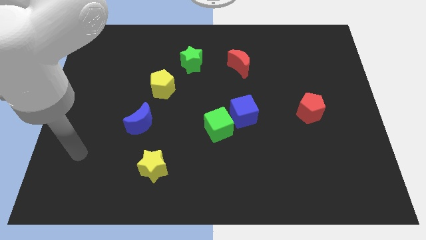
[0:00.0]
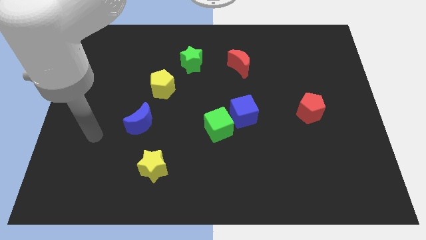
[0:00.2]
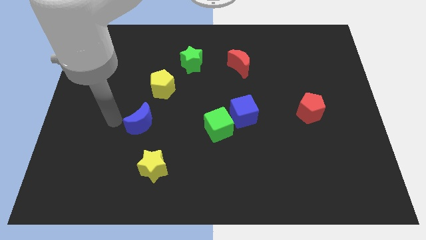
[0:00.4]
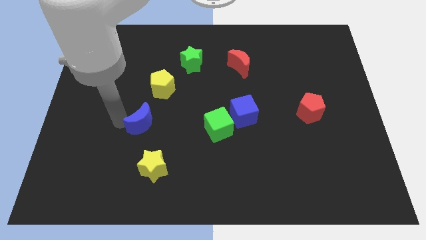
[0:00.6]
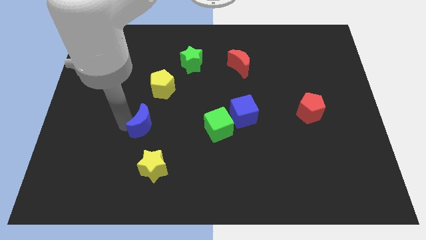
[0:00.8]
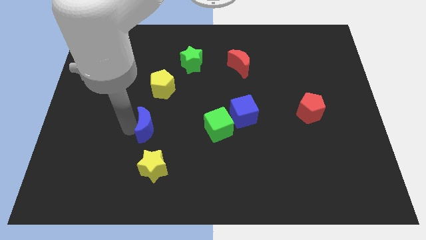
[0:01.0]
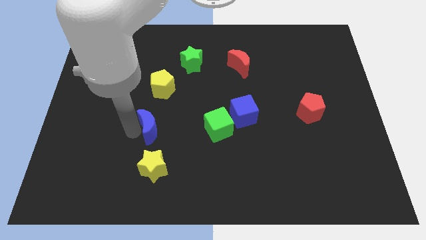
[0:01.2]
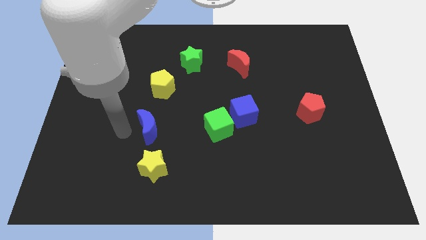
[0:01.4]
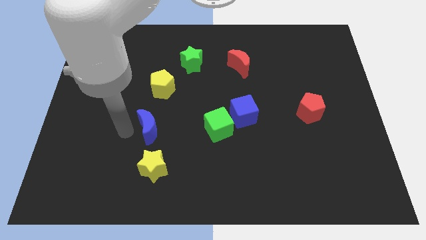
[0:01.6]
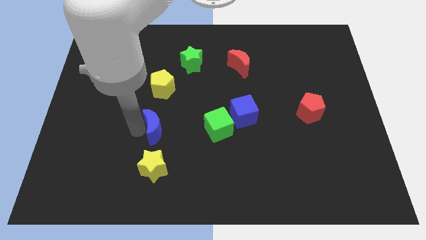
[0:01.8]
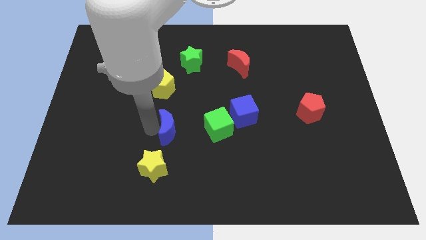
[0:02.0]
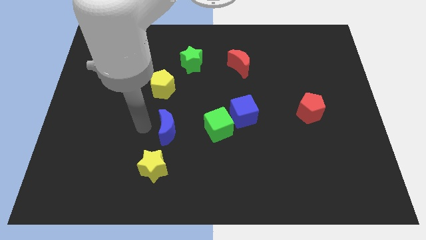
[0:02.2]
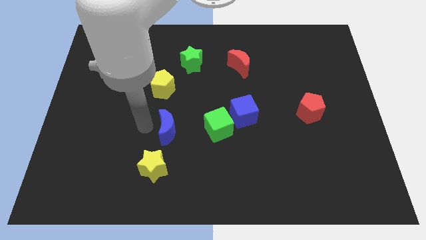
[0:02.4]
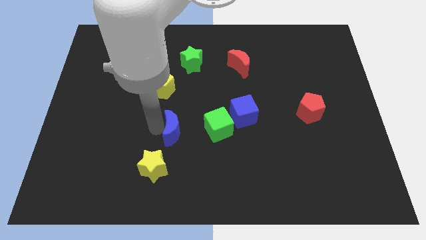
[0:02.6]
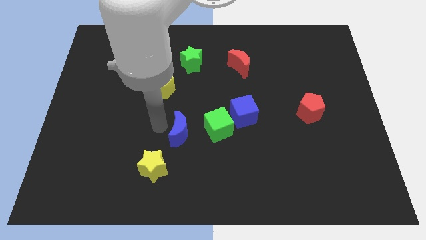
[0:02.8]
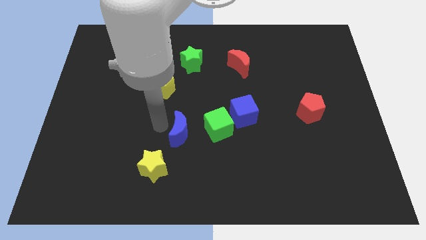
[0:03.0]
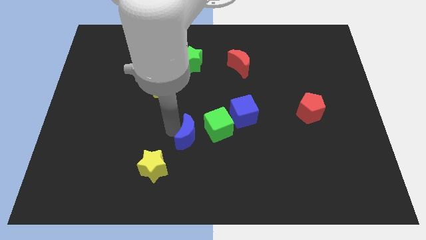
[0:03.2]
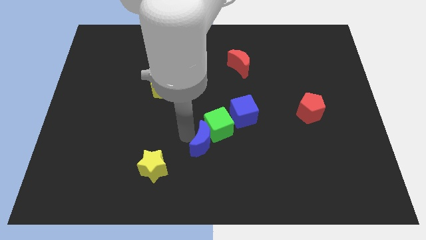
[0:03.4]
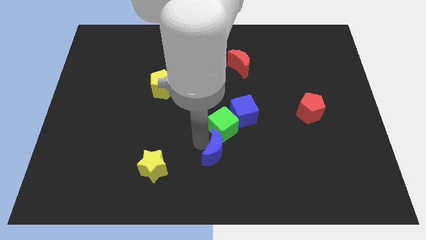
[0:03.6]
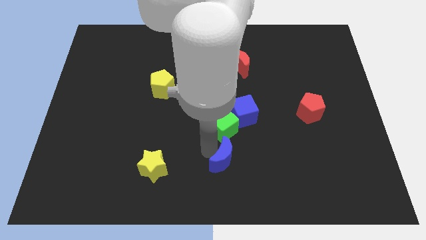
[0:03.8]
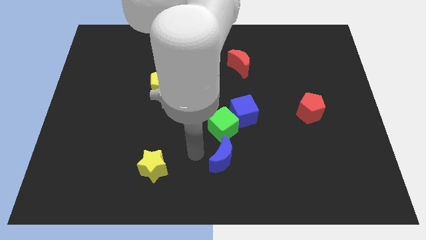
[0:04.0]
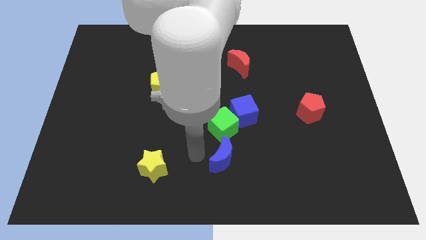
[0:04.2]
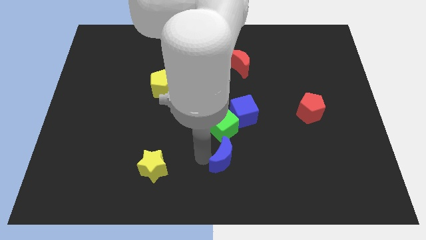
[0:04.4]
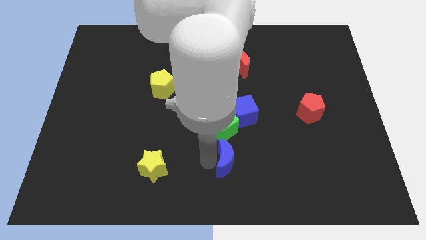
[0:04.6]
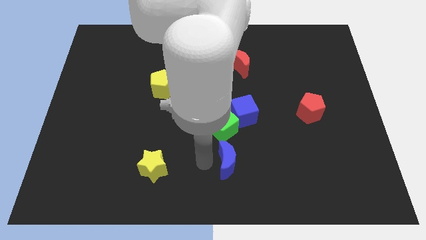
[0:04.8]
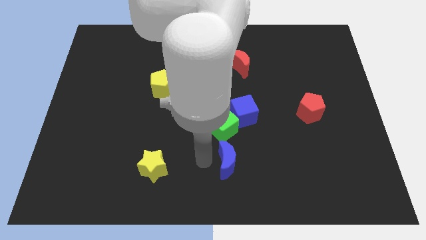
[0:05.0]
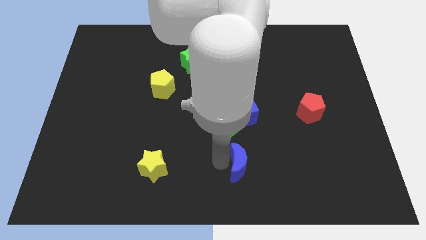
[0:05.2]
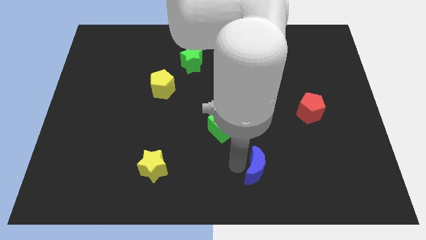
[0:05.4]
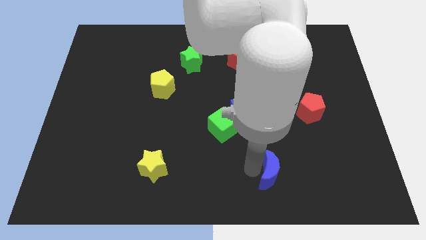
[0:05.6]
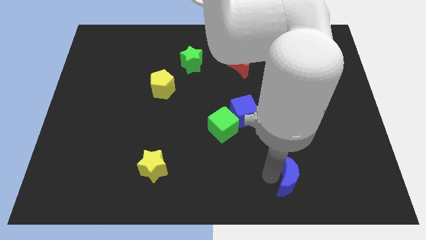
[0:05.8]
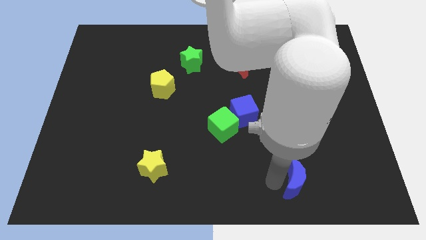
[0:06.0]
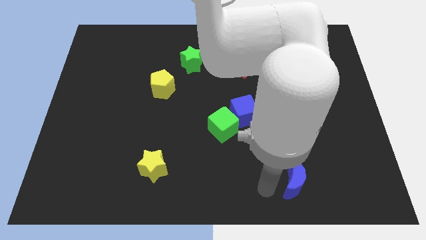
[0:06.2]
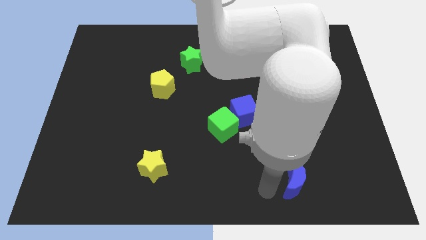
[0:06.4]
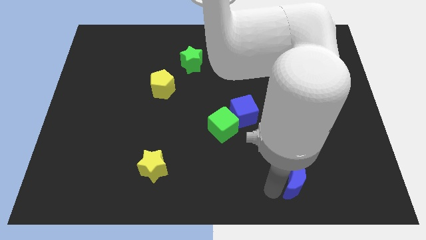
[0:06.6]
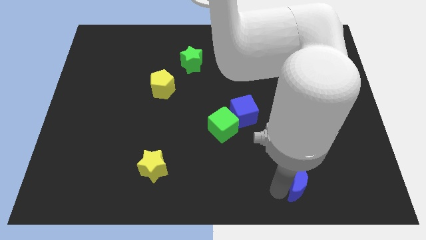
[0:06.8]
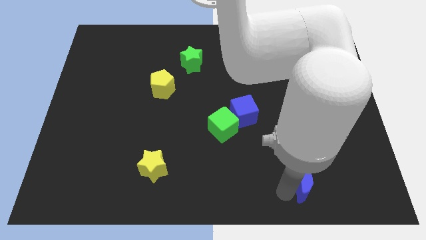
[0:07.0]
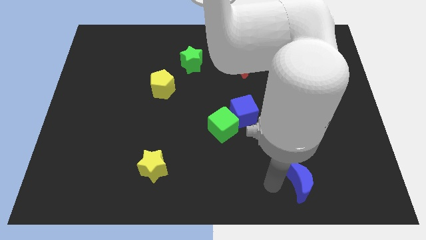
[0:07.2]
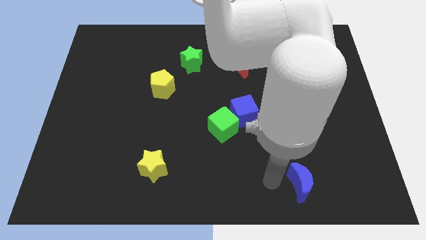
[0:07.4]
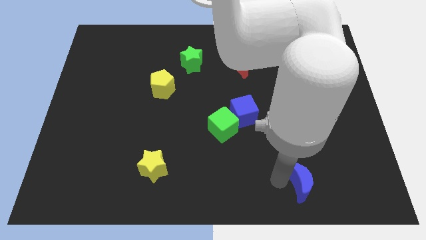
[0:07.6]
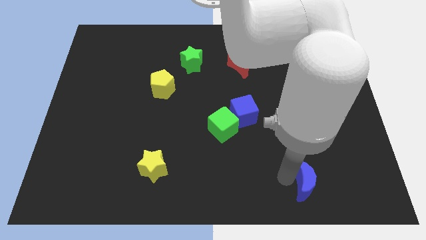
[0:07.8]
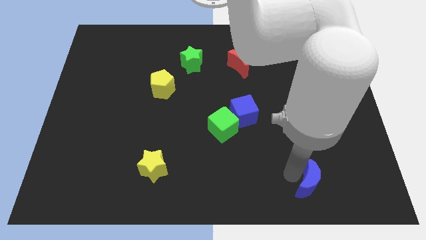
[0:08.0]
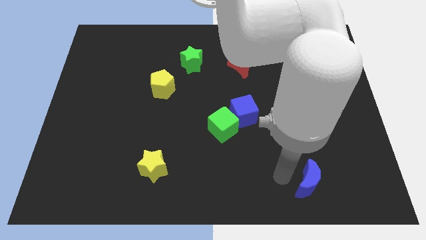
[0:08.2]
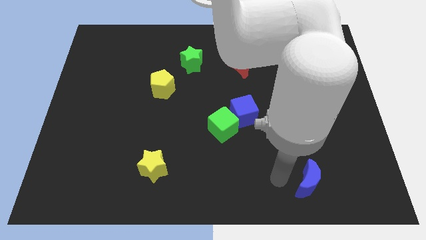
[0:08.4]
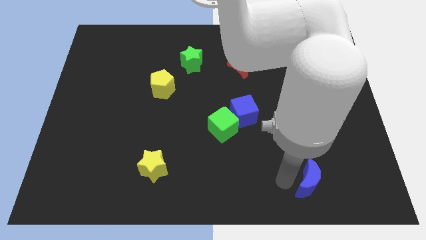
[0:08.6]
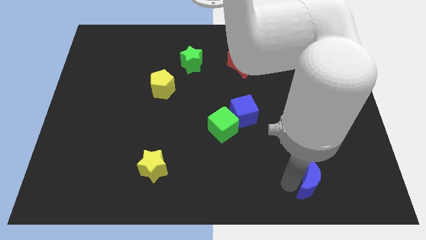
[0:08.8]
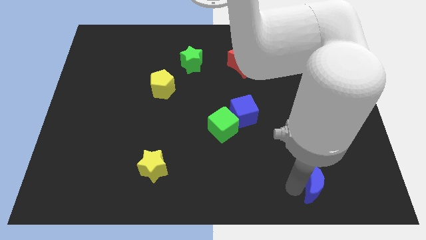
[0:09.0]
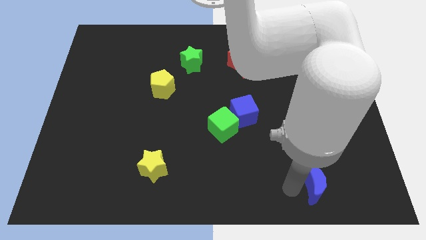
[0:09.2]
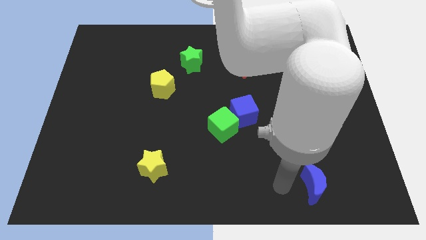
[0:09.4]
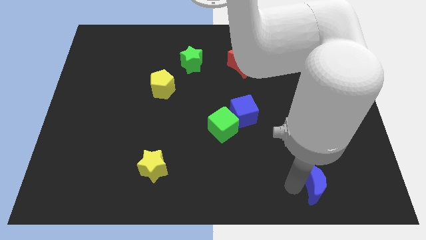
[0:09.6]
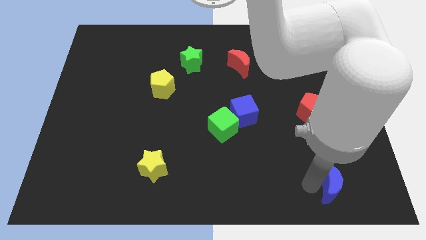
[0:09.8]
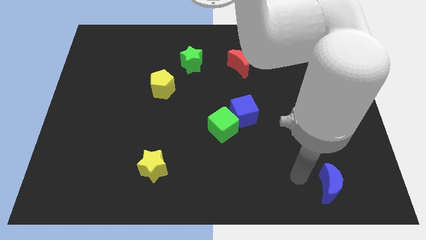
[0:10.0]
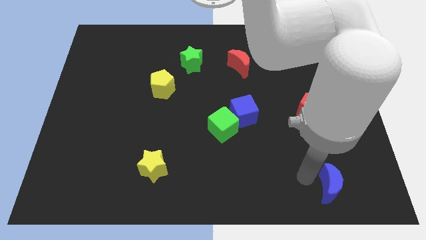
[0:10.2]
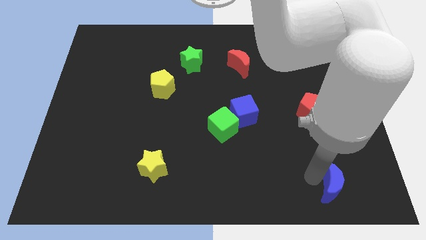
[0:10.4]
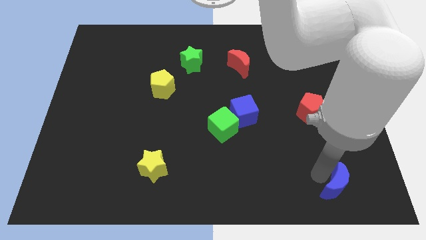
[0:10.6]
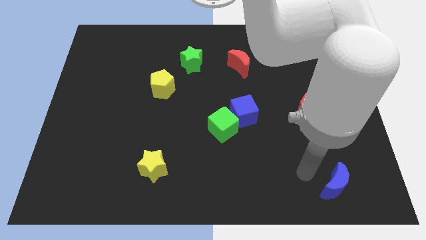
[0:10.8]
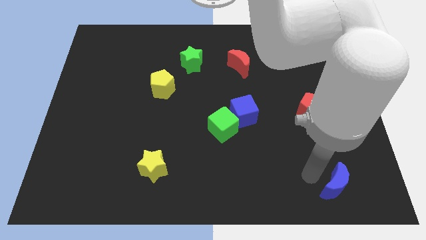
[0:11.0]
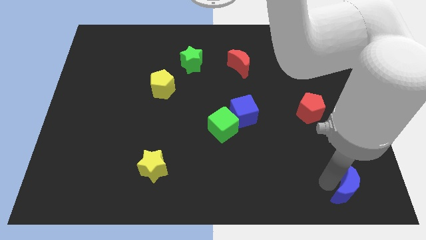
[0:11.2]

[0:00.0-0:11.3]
push the blue moon to the lower right corner
